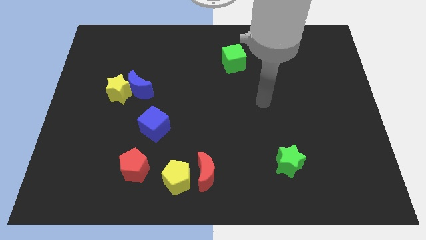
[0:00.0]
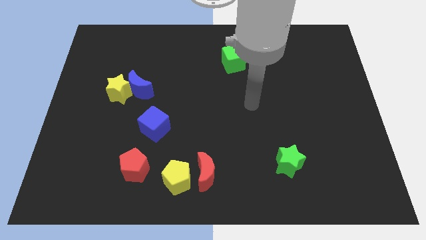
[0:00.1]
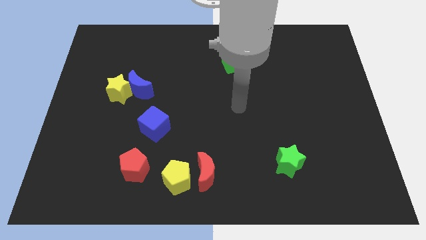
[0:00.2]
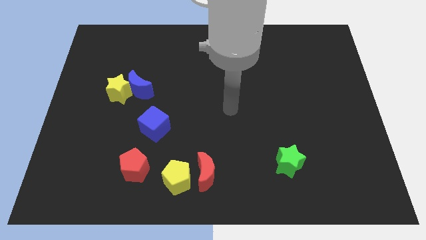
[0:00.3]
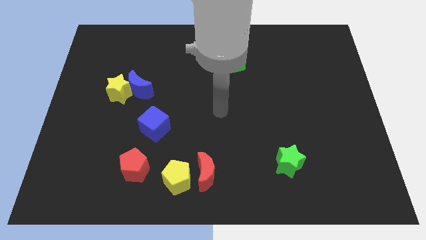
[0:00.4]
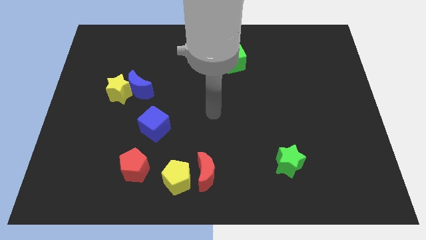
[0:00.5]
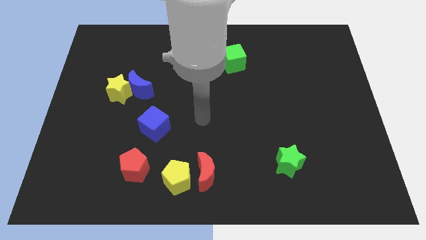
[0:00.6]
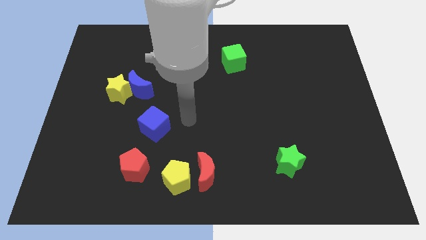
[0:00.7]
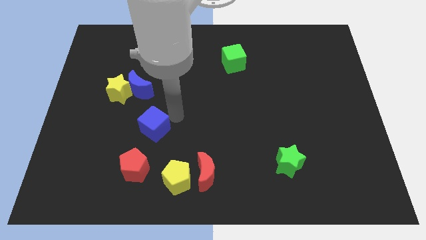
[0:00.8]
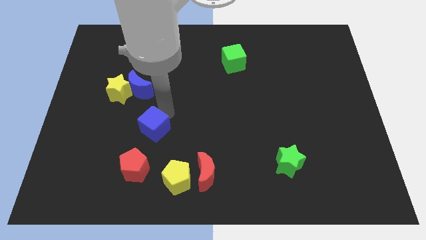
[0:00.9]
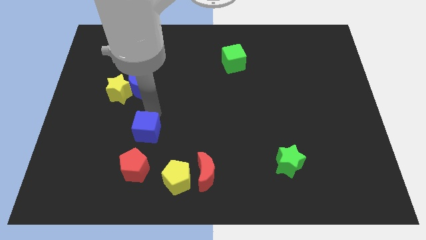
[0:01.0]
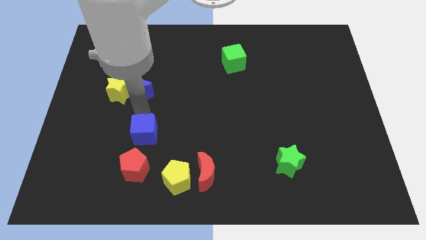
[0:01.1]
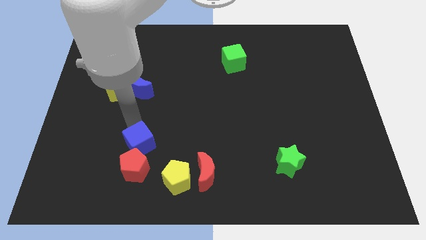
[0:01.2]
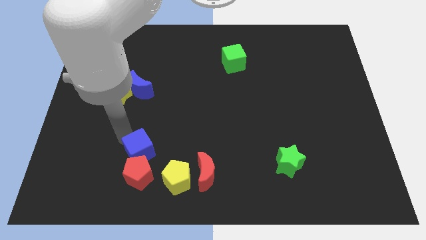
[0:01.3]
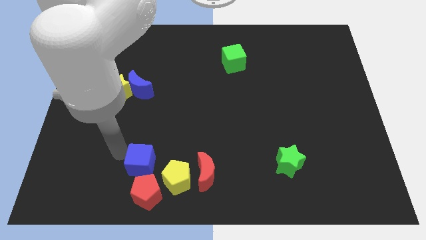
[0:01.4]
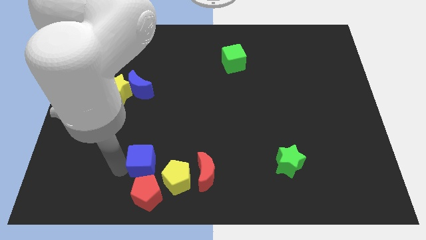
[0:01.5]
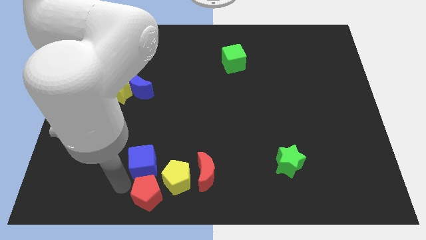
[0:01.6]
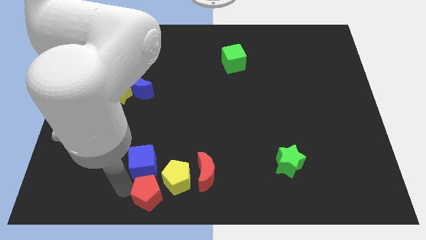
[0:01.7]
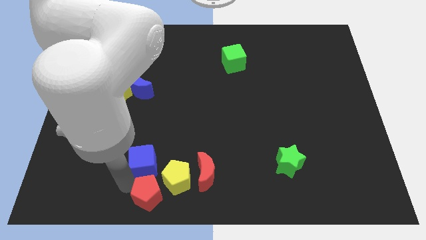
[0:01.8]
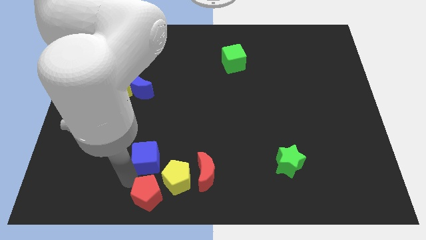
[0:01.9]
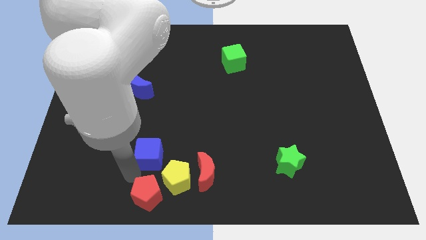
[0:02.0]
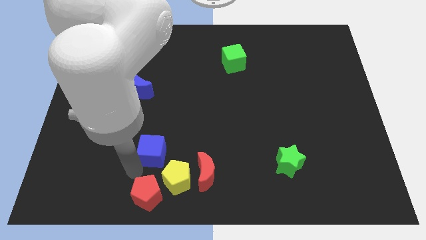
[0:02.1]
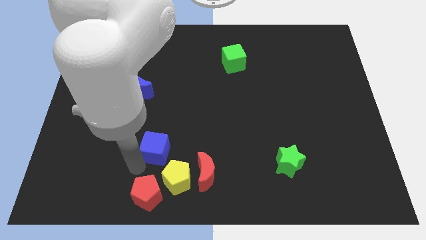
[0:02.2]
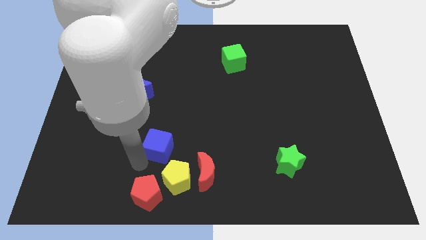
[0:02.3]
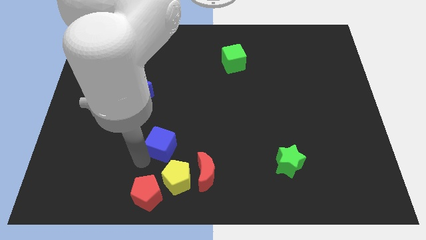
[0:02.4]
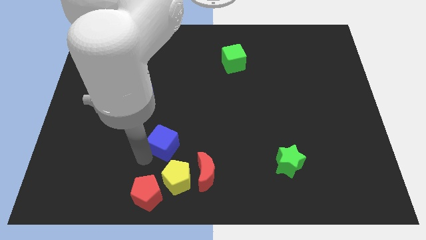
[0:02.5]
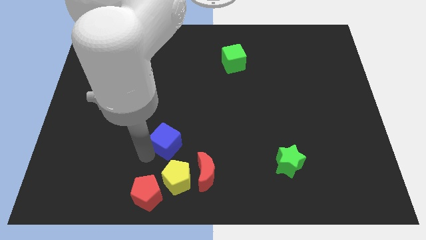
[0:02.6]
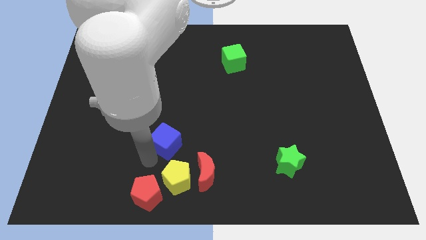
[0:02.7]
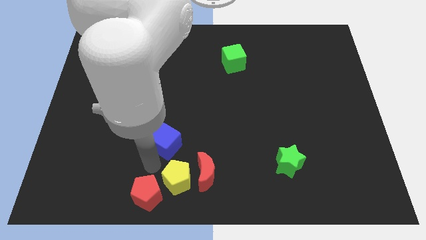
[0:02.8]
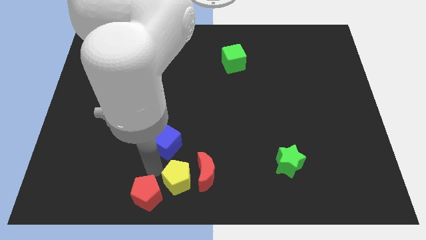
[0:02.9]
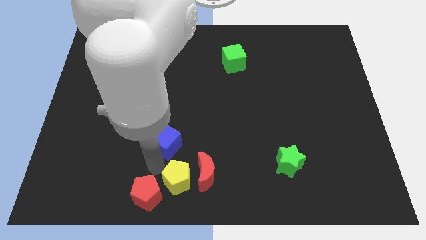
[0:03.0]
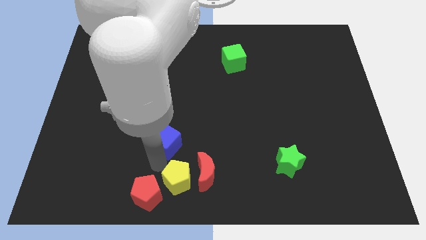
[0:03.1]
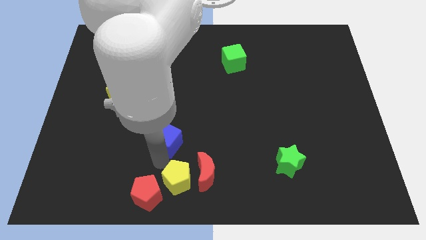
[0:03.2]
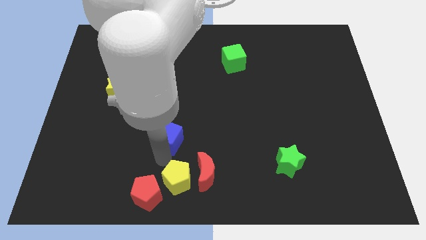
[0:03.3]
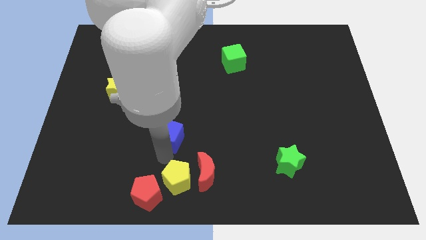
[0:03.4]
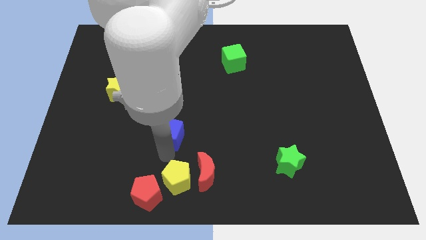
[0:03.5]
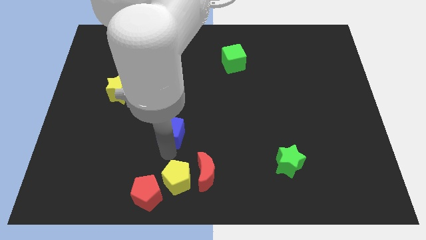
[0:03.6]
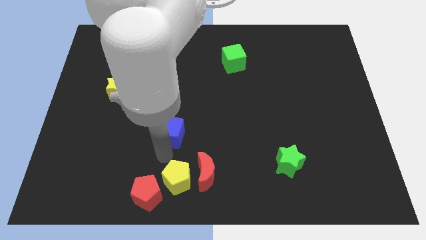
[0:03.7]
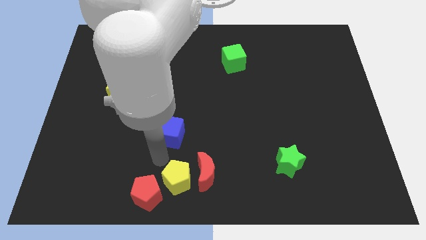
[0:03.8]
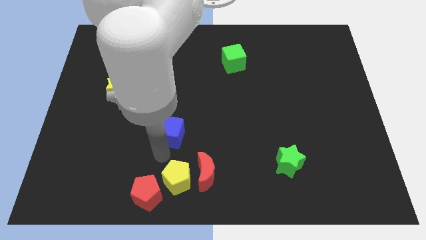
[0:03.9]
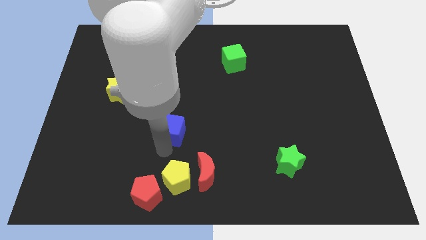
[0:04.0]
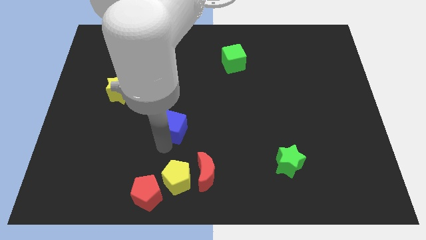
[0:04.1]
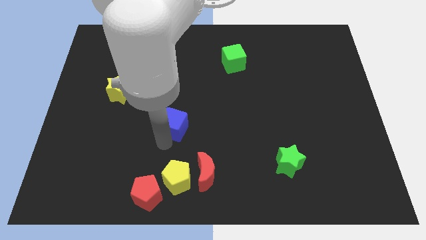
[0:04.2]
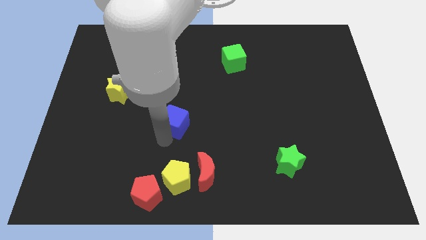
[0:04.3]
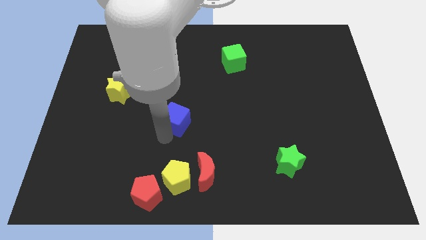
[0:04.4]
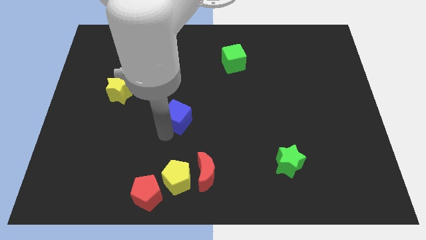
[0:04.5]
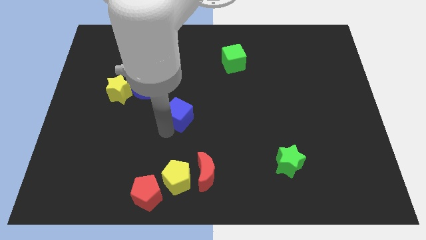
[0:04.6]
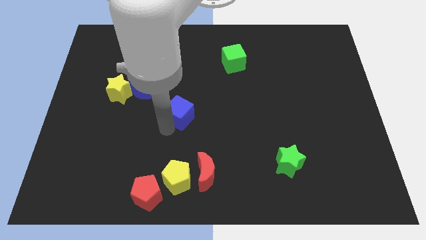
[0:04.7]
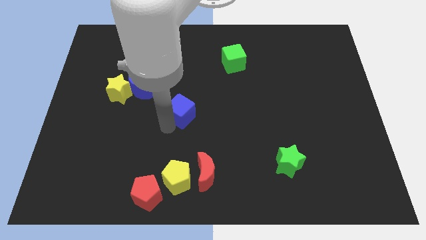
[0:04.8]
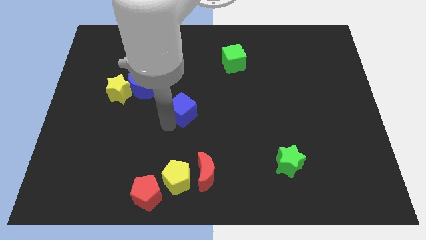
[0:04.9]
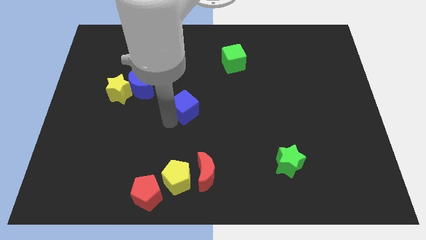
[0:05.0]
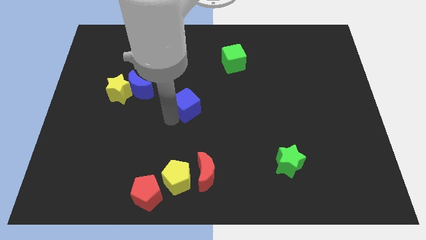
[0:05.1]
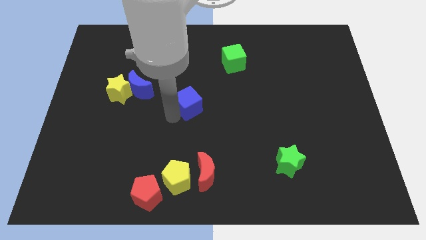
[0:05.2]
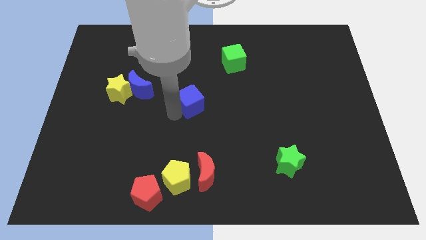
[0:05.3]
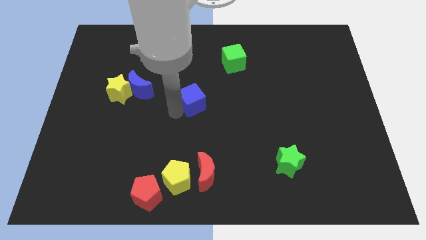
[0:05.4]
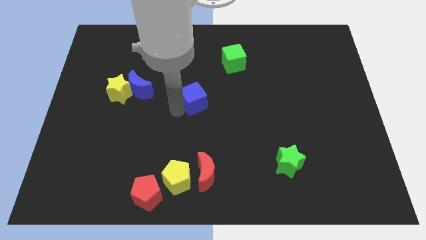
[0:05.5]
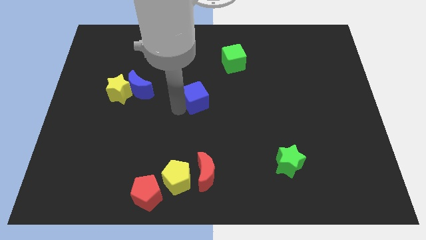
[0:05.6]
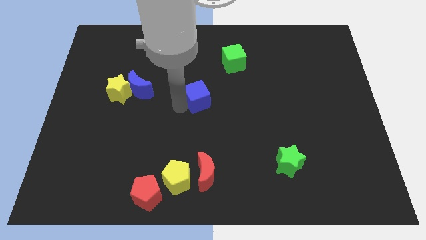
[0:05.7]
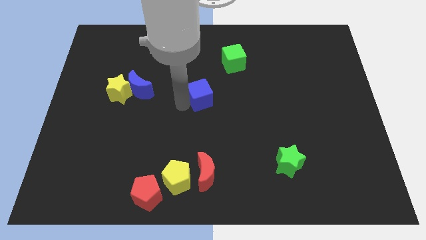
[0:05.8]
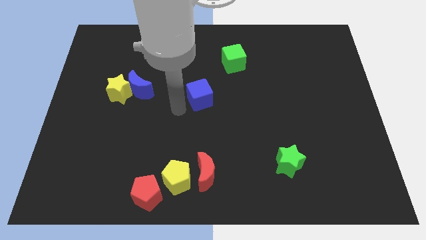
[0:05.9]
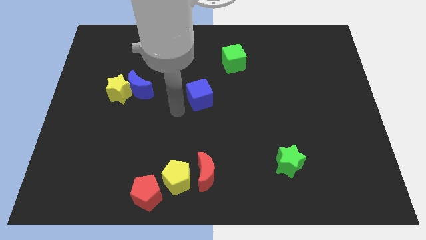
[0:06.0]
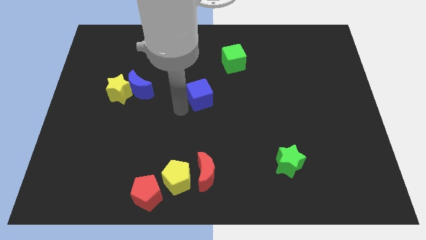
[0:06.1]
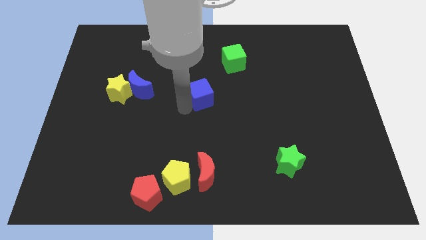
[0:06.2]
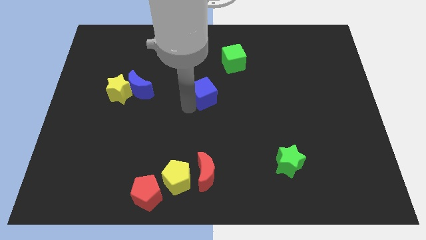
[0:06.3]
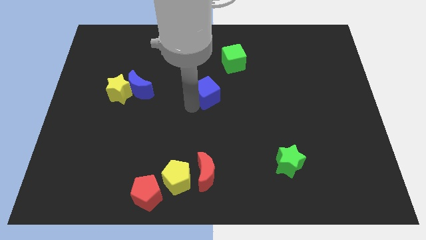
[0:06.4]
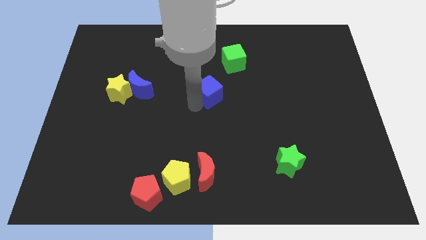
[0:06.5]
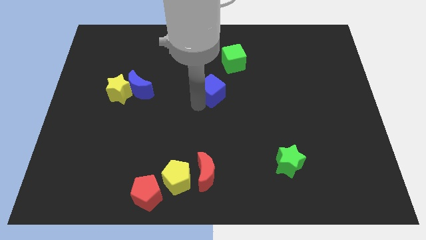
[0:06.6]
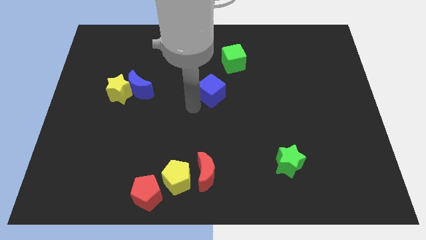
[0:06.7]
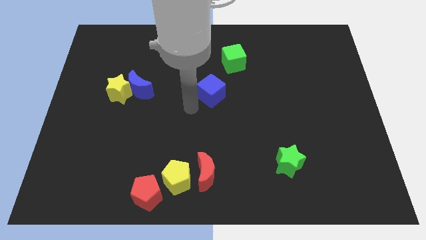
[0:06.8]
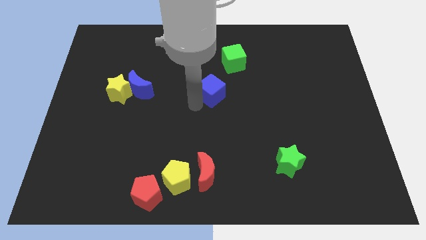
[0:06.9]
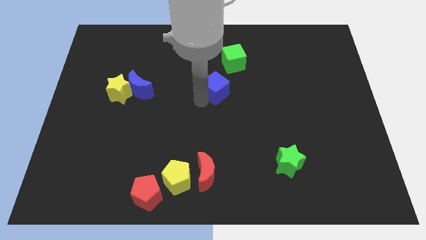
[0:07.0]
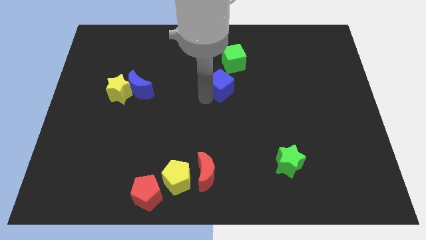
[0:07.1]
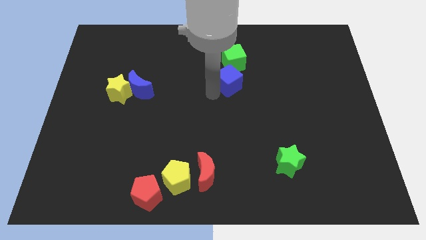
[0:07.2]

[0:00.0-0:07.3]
move the blue cube diagonally upwards and to the right

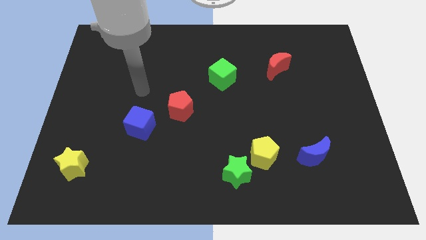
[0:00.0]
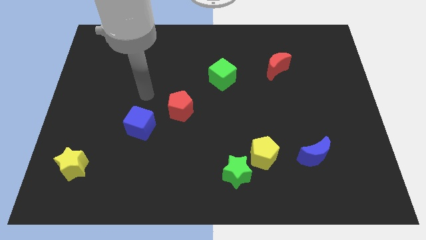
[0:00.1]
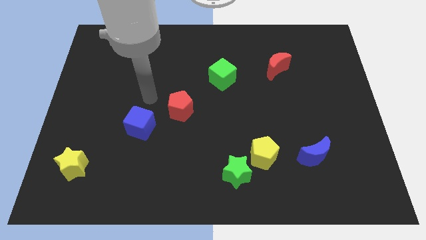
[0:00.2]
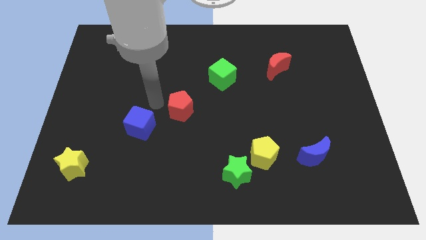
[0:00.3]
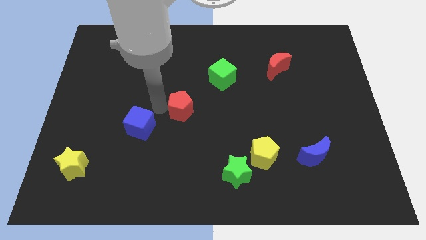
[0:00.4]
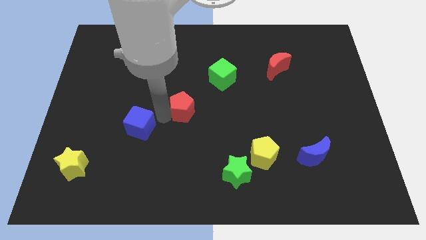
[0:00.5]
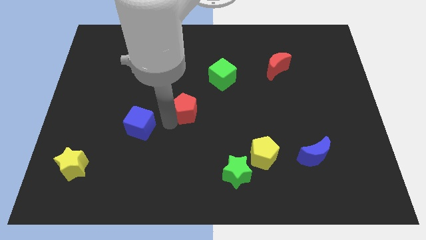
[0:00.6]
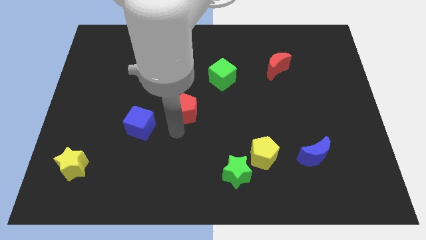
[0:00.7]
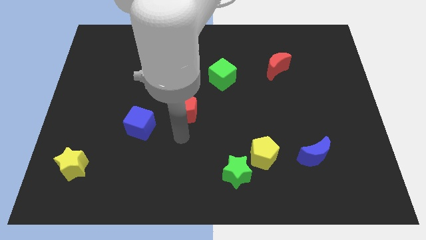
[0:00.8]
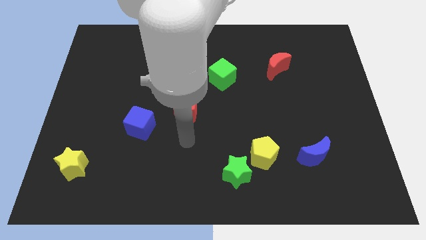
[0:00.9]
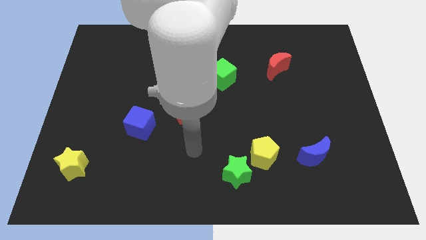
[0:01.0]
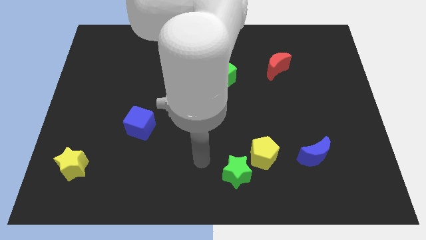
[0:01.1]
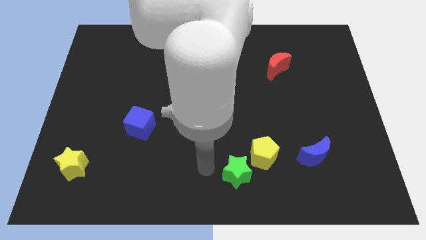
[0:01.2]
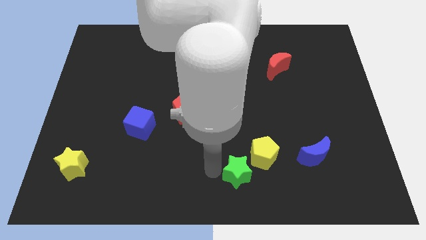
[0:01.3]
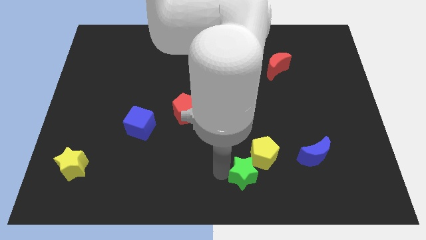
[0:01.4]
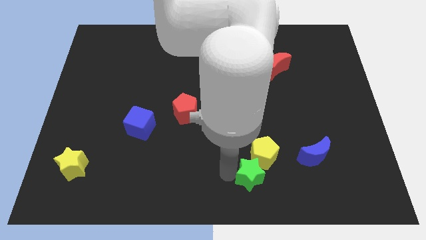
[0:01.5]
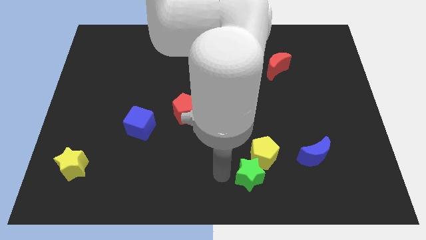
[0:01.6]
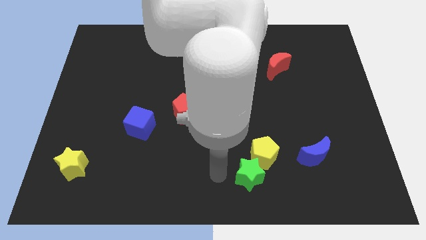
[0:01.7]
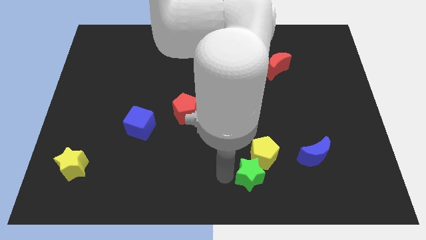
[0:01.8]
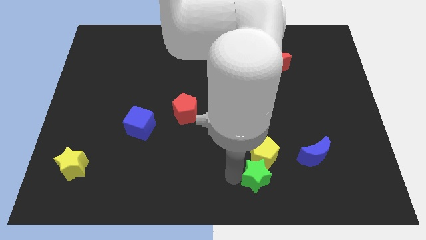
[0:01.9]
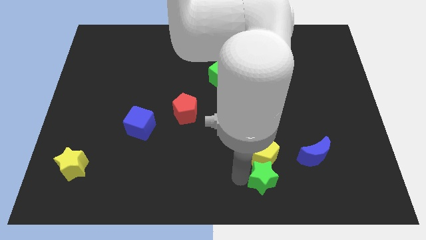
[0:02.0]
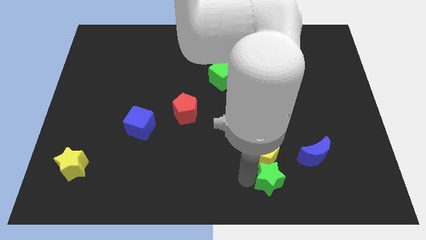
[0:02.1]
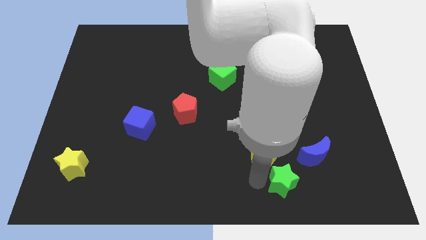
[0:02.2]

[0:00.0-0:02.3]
move the green star to the right a little bit
